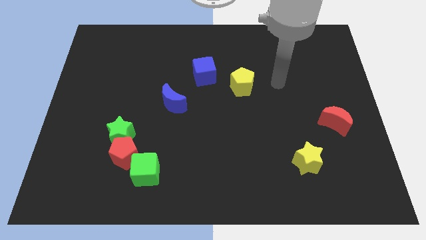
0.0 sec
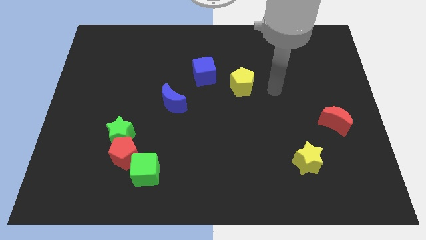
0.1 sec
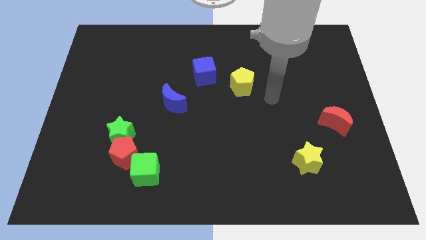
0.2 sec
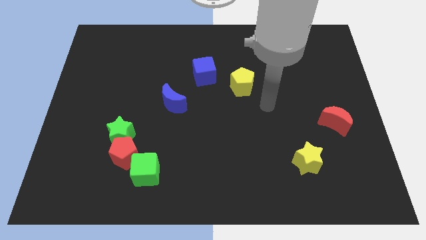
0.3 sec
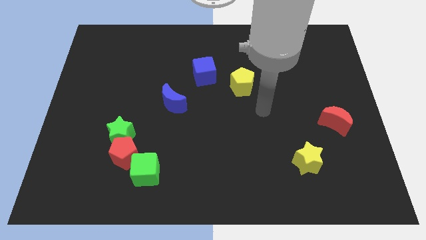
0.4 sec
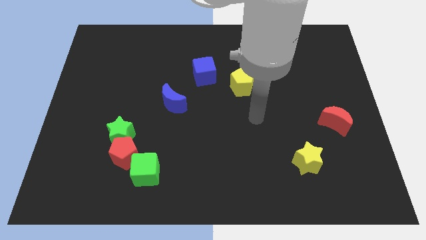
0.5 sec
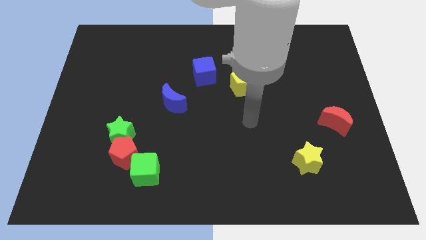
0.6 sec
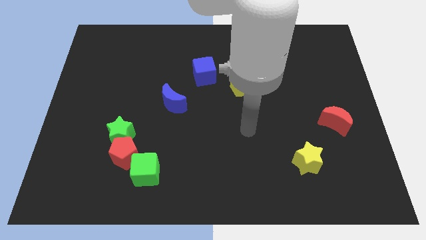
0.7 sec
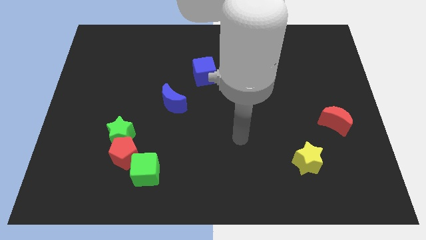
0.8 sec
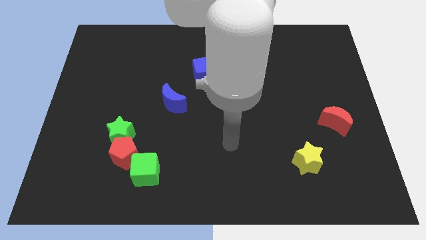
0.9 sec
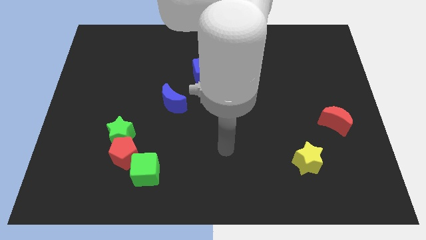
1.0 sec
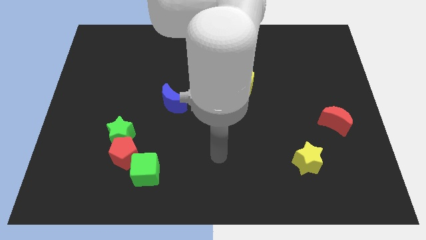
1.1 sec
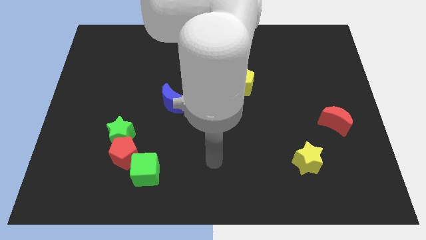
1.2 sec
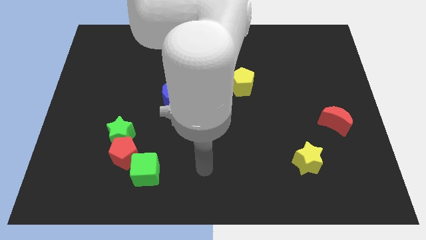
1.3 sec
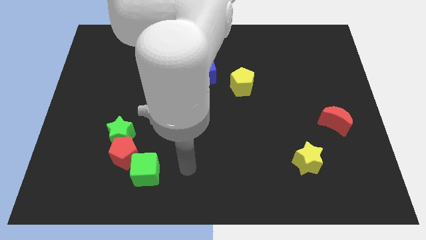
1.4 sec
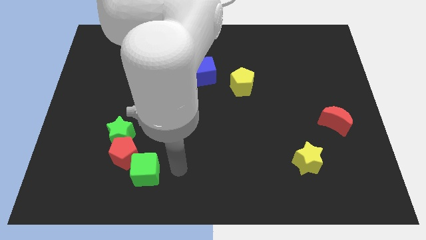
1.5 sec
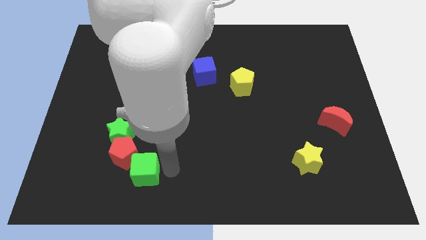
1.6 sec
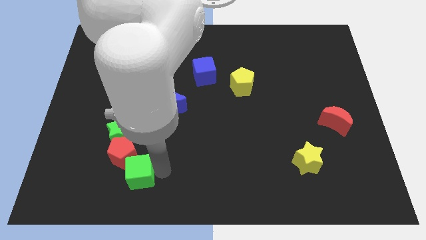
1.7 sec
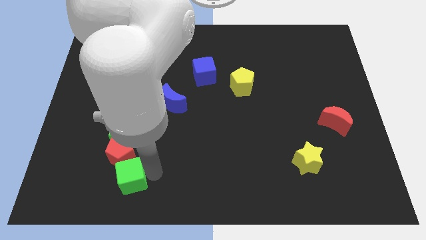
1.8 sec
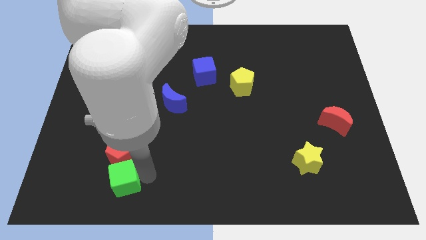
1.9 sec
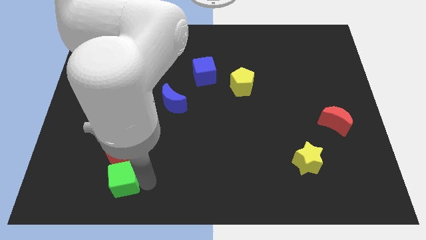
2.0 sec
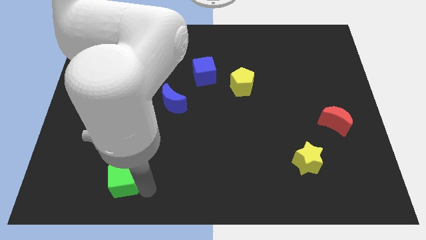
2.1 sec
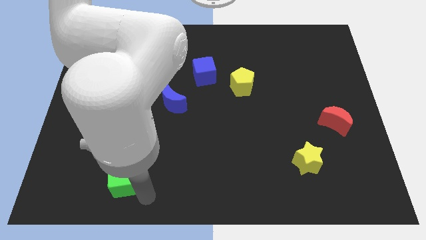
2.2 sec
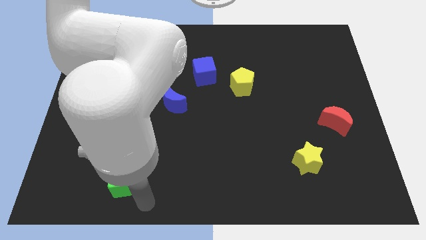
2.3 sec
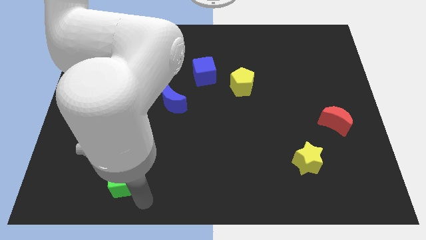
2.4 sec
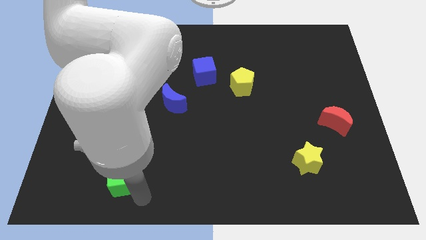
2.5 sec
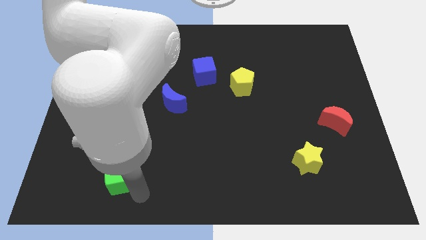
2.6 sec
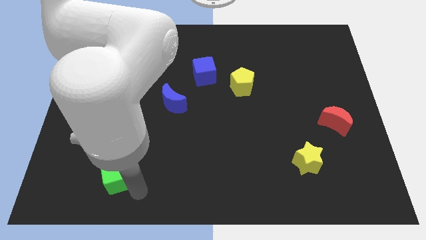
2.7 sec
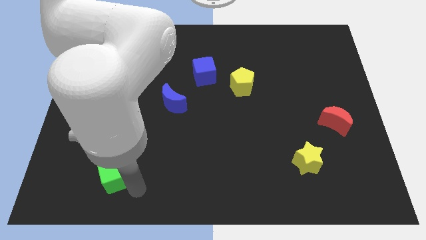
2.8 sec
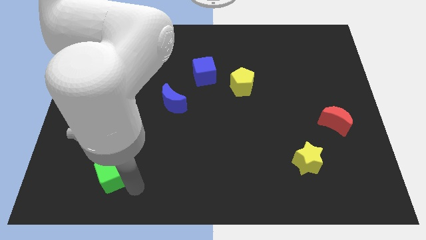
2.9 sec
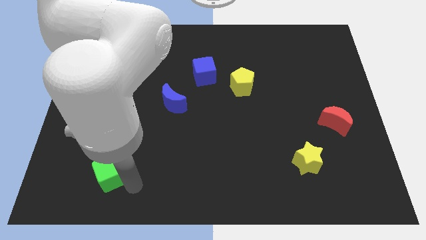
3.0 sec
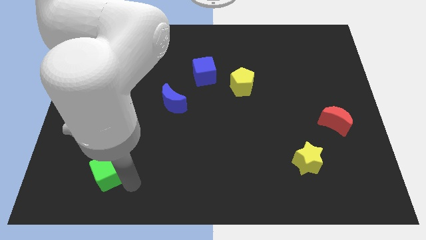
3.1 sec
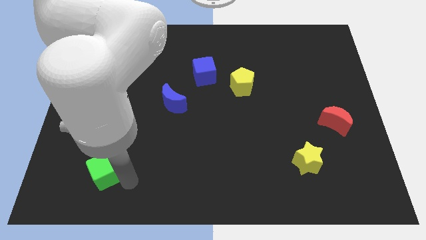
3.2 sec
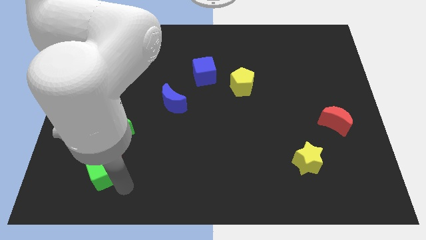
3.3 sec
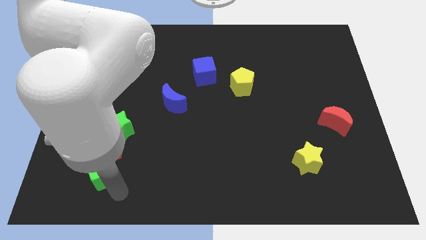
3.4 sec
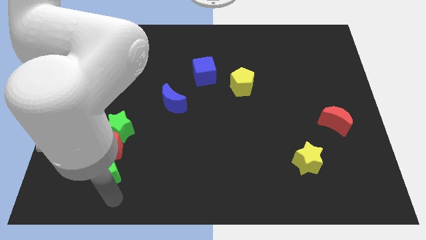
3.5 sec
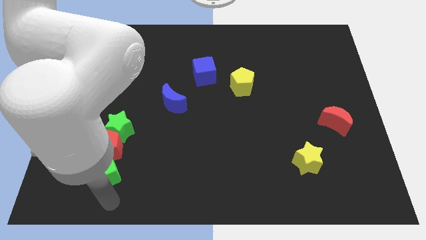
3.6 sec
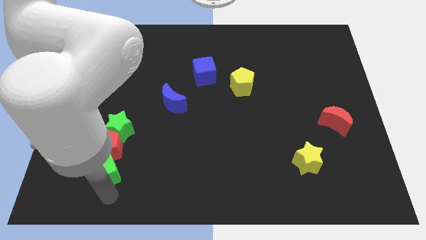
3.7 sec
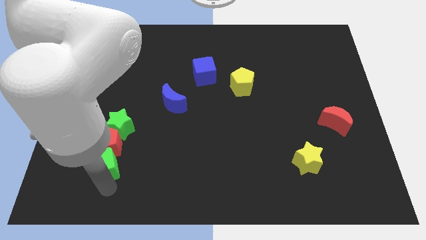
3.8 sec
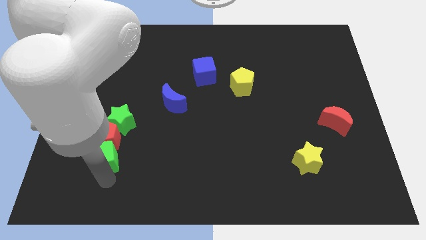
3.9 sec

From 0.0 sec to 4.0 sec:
slightly move the green cube up and left diagonally

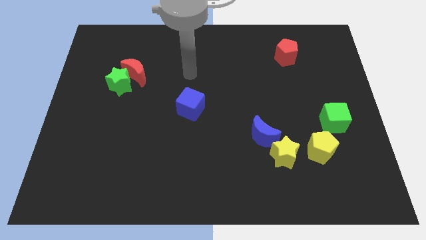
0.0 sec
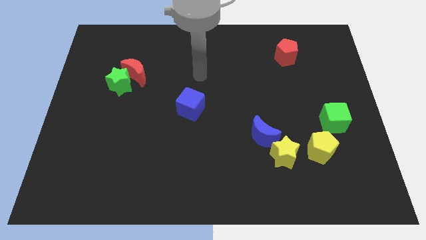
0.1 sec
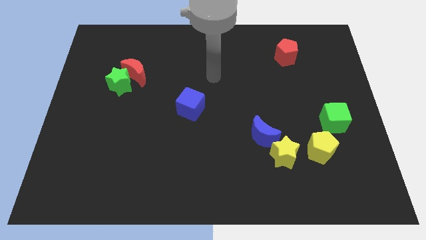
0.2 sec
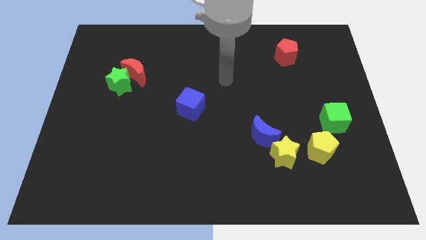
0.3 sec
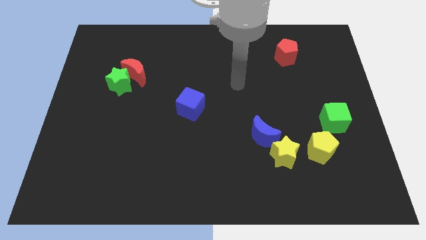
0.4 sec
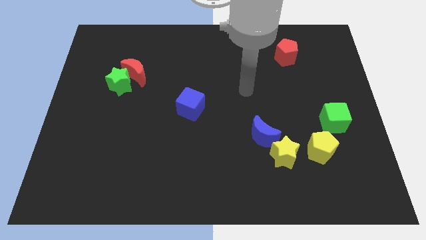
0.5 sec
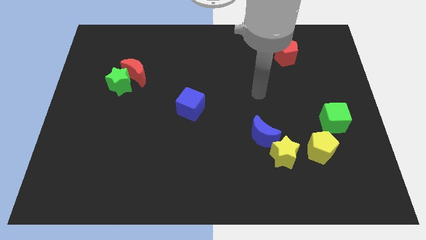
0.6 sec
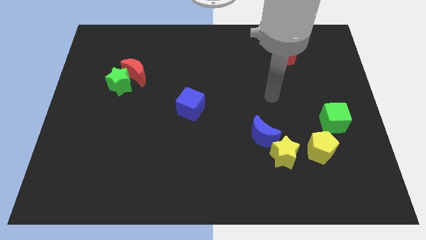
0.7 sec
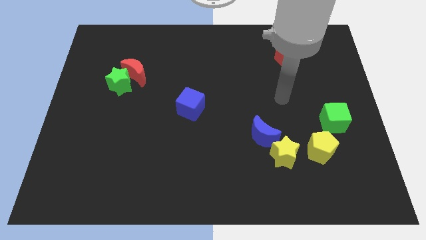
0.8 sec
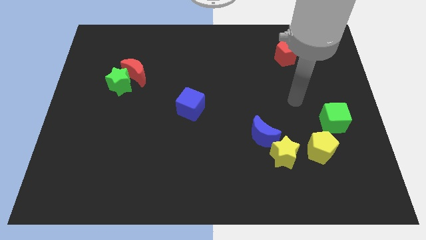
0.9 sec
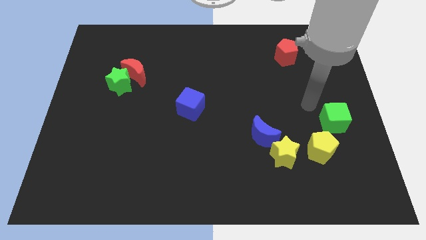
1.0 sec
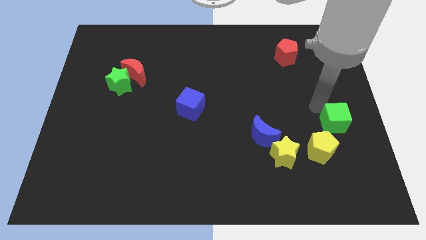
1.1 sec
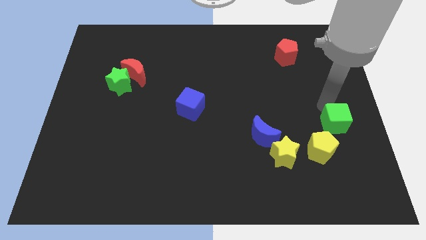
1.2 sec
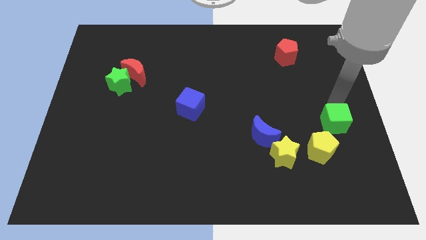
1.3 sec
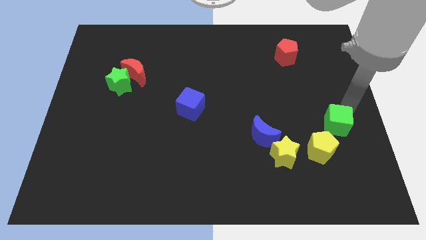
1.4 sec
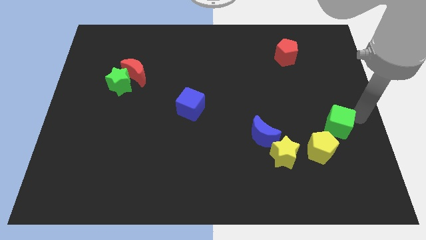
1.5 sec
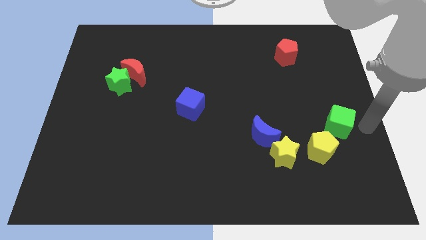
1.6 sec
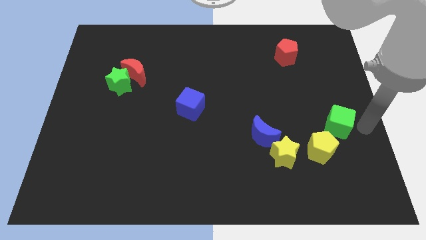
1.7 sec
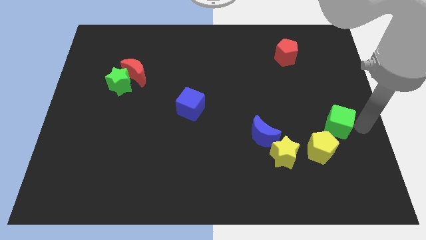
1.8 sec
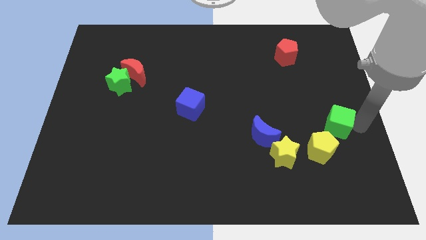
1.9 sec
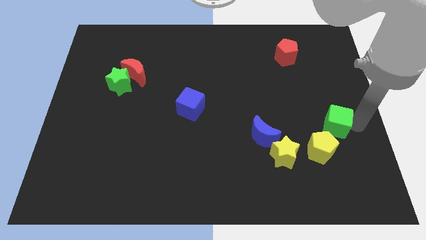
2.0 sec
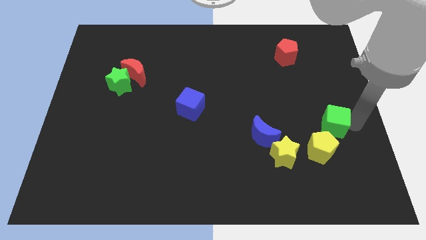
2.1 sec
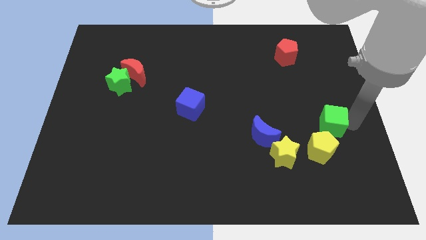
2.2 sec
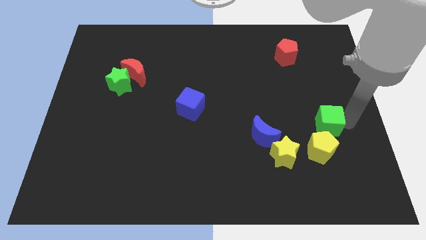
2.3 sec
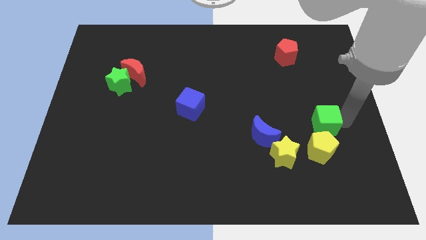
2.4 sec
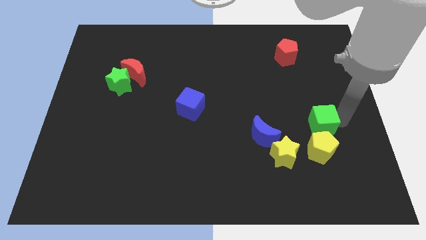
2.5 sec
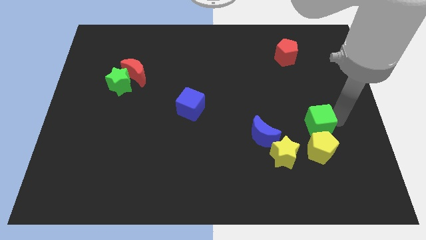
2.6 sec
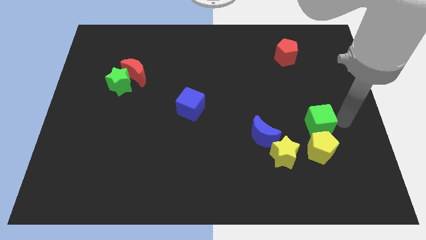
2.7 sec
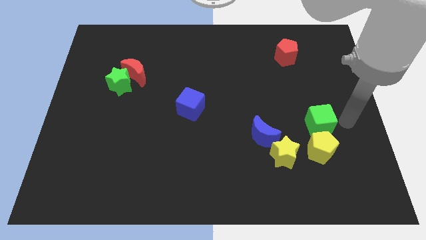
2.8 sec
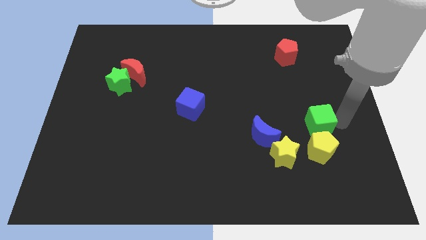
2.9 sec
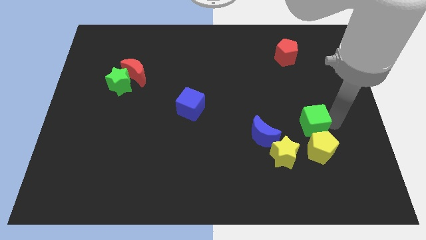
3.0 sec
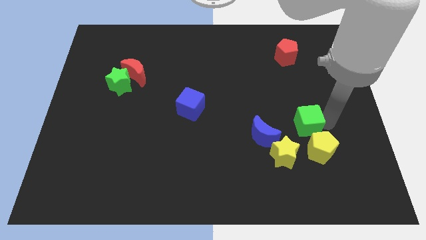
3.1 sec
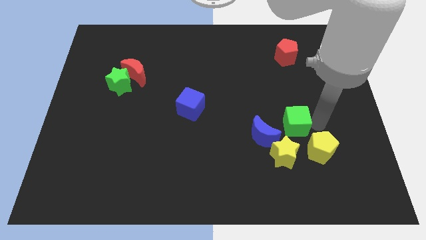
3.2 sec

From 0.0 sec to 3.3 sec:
move the green cube a little bit left

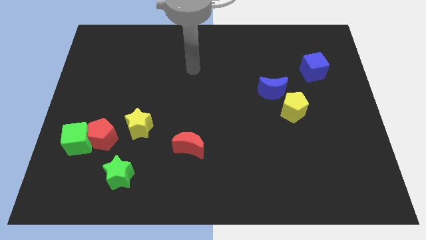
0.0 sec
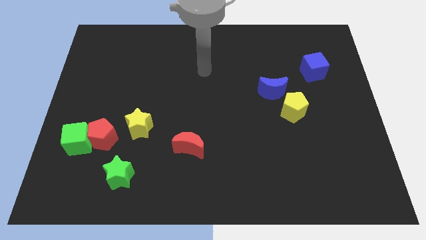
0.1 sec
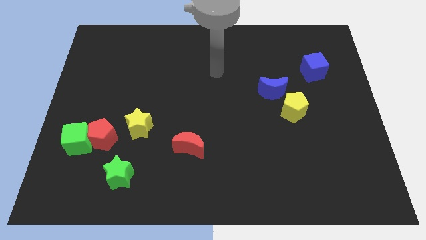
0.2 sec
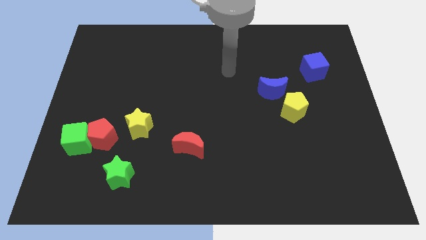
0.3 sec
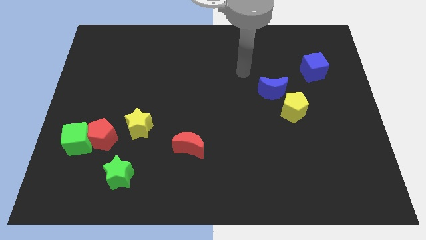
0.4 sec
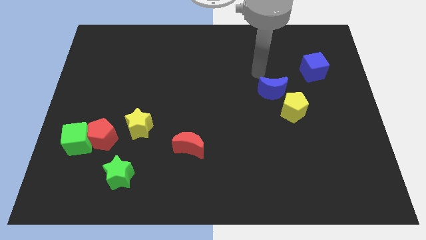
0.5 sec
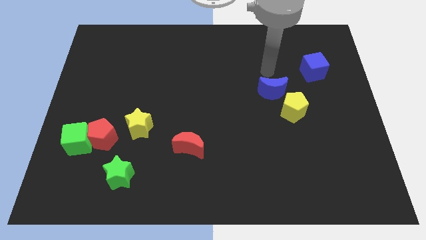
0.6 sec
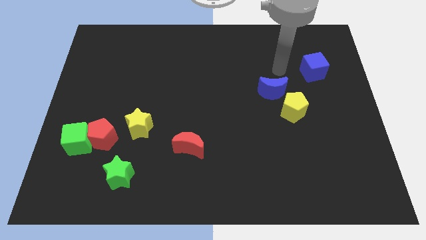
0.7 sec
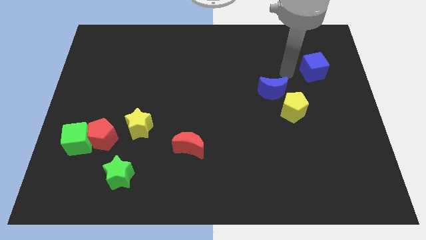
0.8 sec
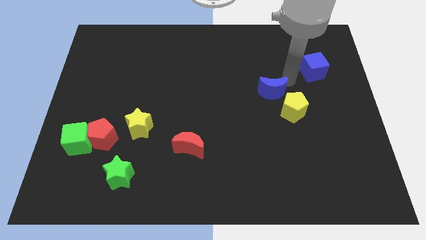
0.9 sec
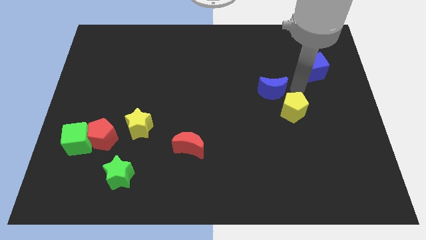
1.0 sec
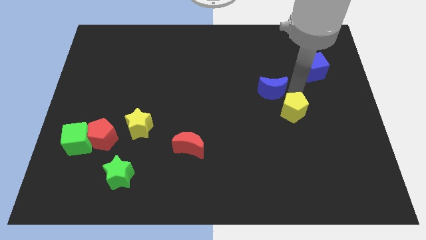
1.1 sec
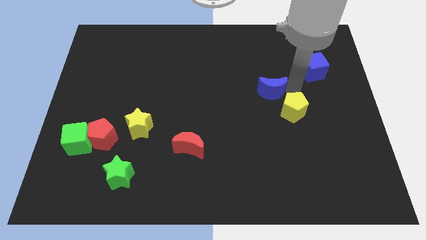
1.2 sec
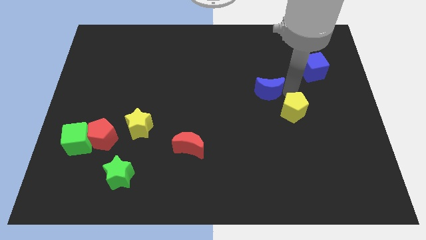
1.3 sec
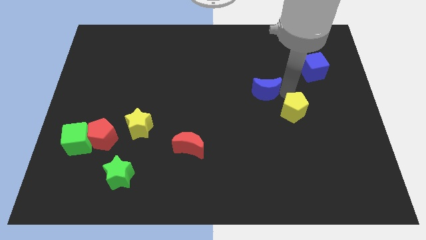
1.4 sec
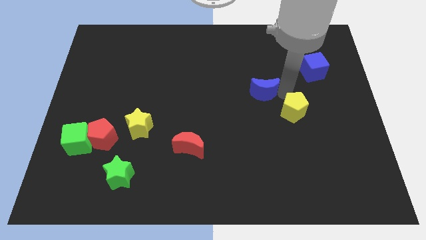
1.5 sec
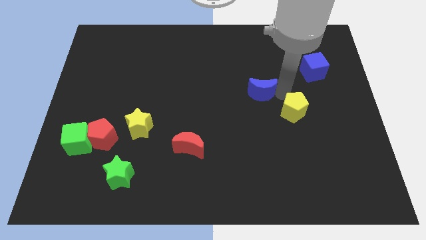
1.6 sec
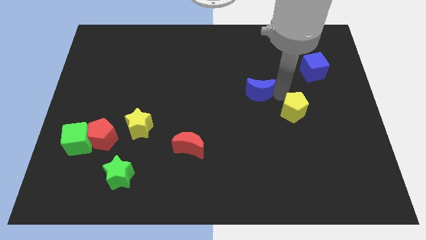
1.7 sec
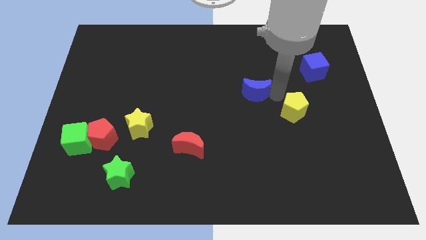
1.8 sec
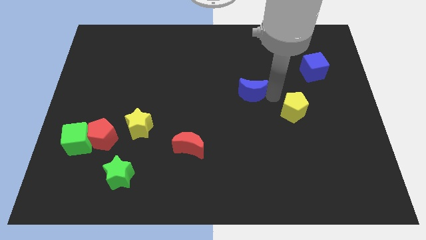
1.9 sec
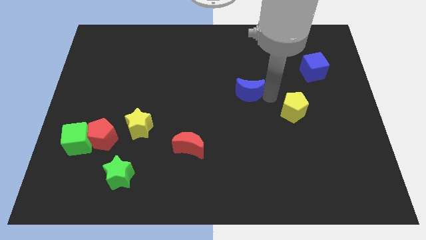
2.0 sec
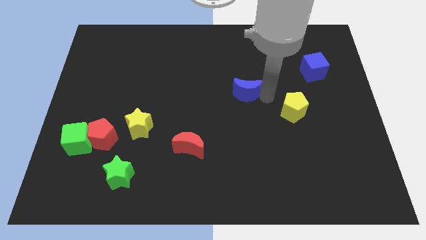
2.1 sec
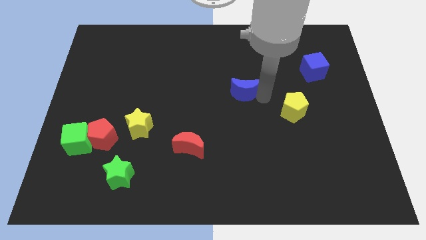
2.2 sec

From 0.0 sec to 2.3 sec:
slightly push the blue moon left
